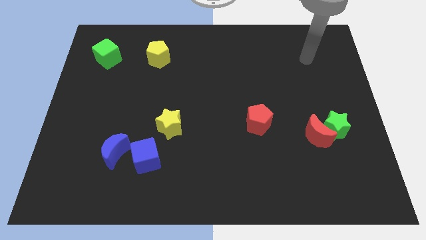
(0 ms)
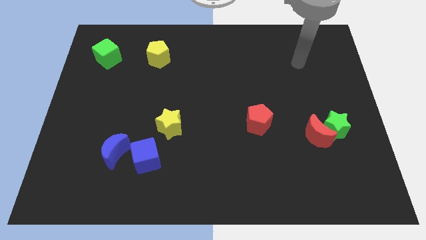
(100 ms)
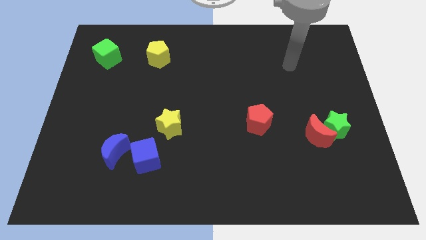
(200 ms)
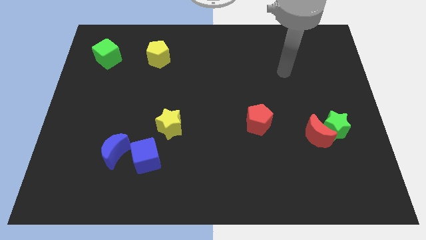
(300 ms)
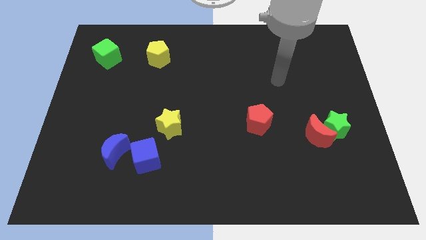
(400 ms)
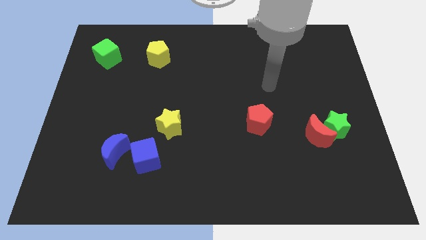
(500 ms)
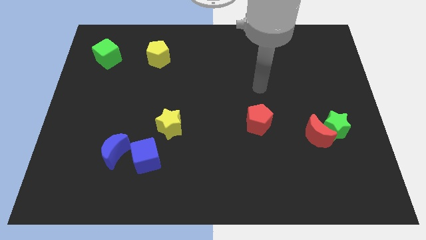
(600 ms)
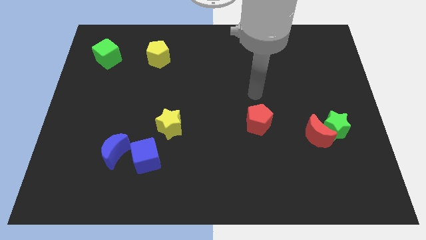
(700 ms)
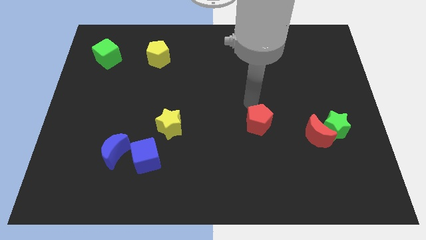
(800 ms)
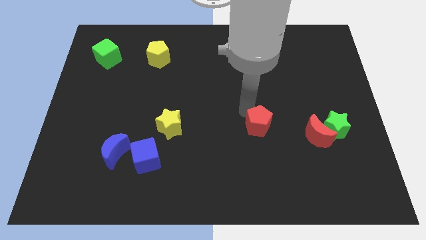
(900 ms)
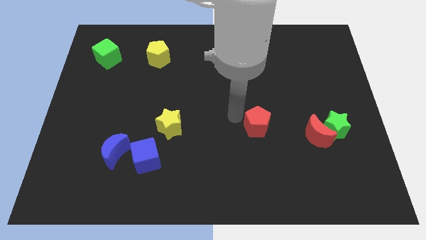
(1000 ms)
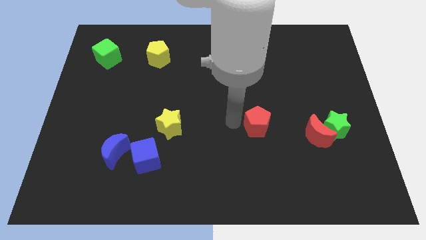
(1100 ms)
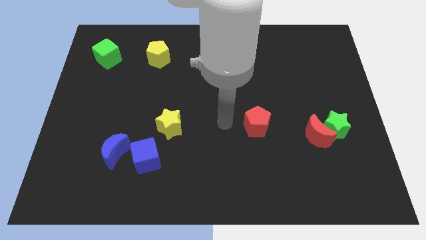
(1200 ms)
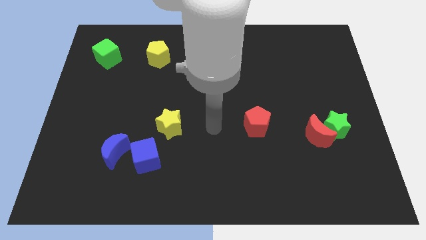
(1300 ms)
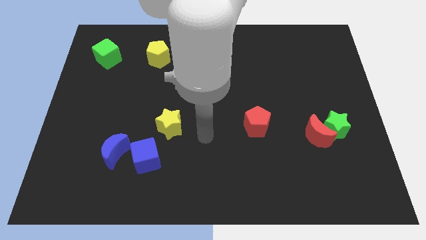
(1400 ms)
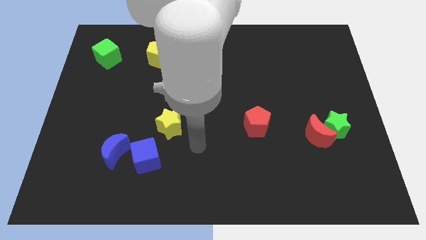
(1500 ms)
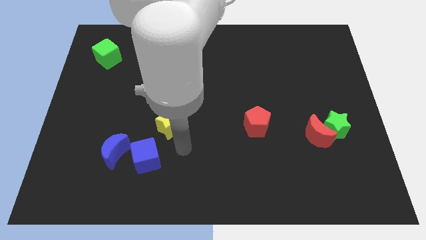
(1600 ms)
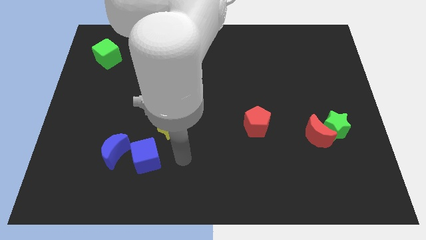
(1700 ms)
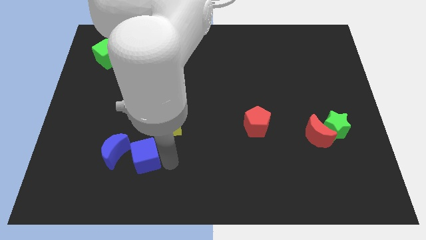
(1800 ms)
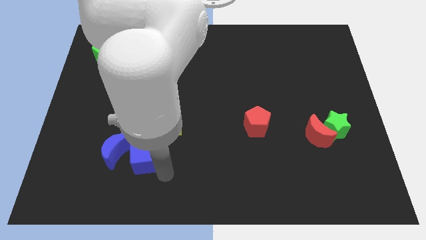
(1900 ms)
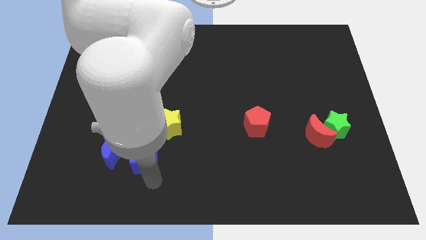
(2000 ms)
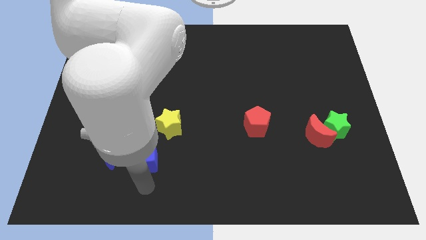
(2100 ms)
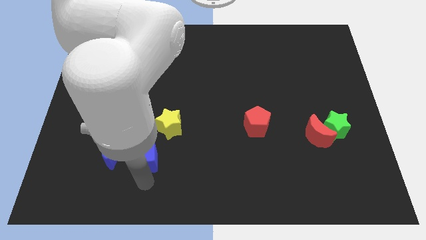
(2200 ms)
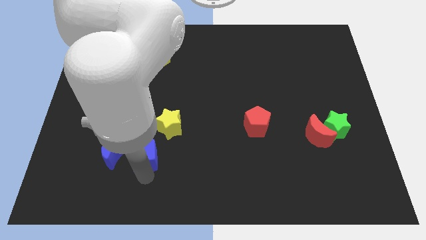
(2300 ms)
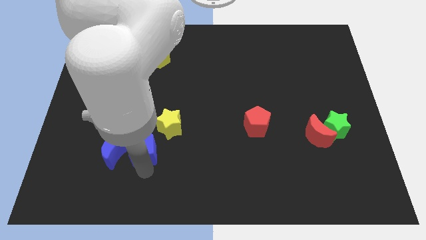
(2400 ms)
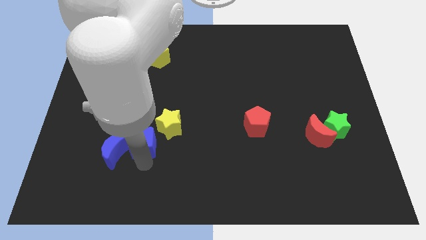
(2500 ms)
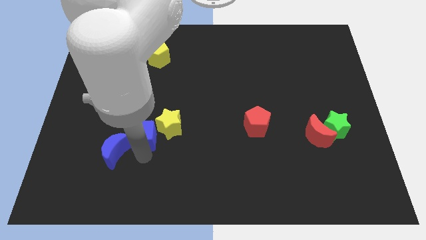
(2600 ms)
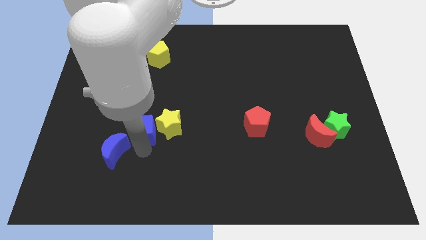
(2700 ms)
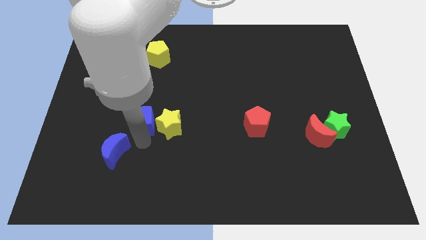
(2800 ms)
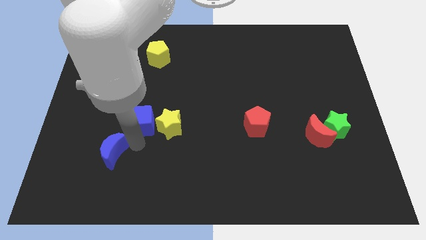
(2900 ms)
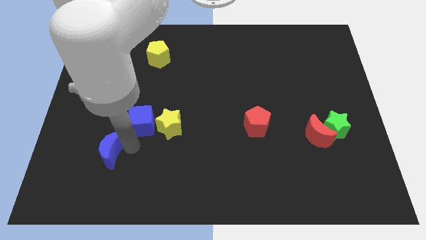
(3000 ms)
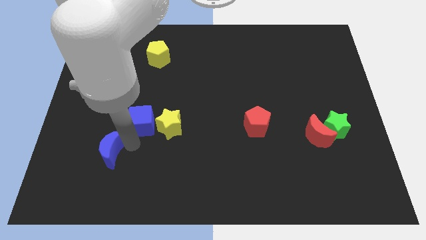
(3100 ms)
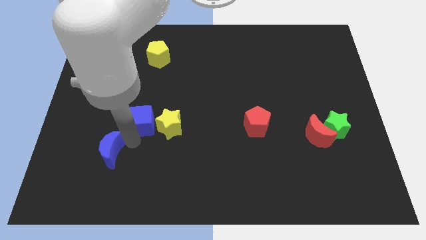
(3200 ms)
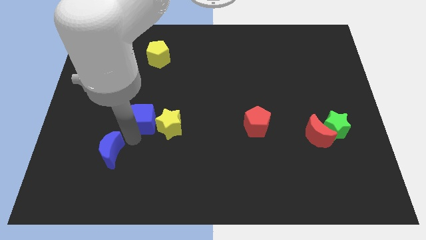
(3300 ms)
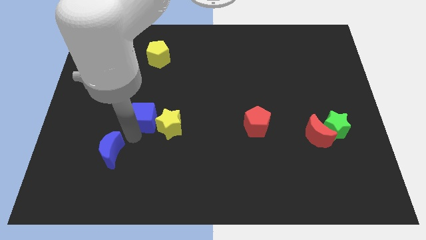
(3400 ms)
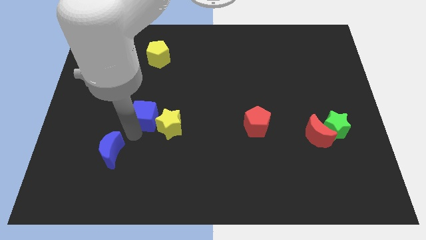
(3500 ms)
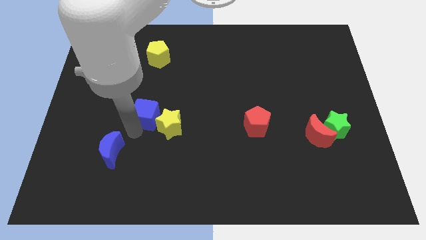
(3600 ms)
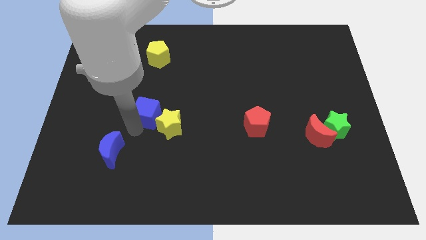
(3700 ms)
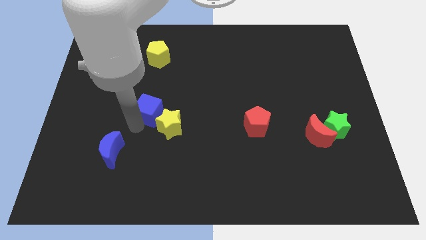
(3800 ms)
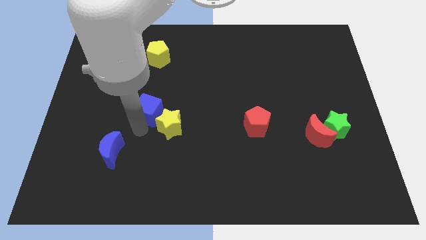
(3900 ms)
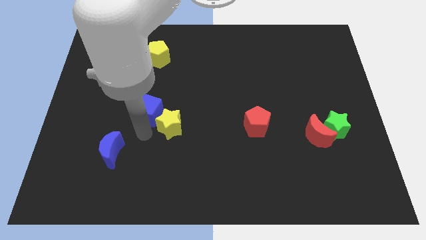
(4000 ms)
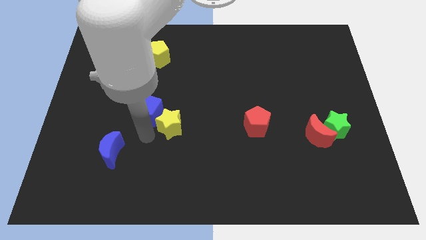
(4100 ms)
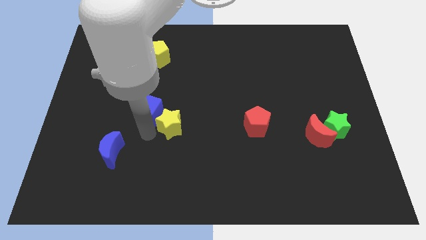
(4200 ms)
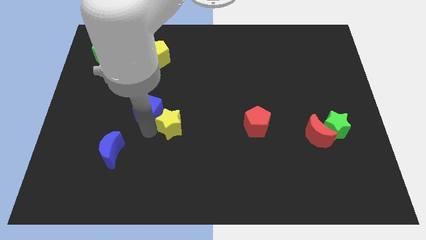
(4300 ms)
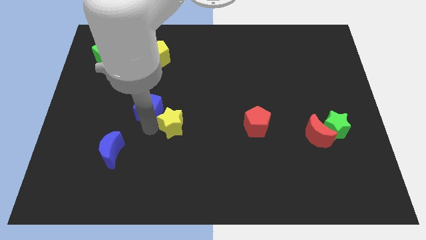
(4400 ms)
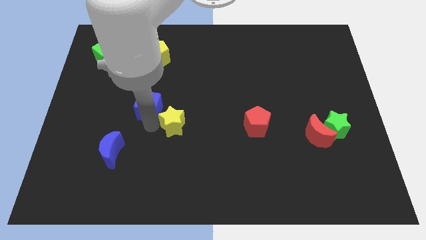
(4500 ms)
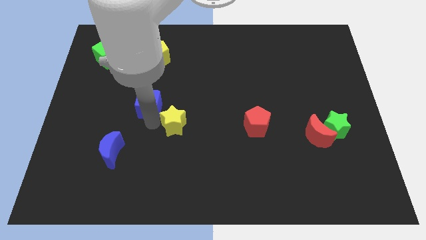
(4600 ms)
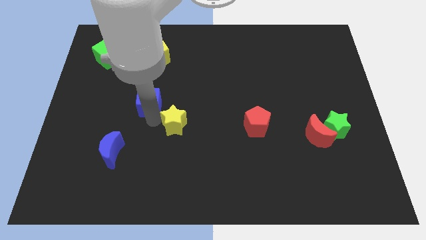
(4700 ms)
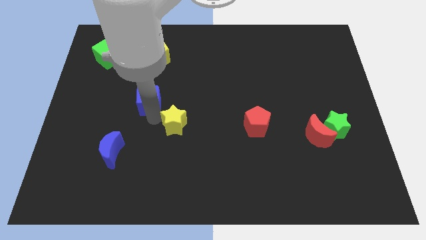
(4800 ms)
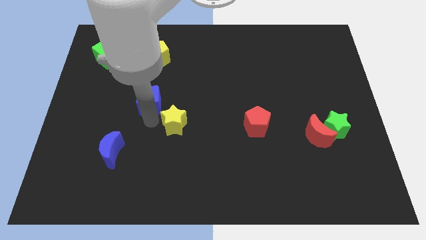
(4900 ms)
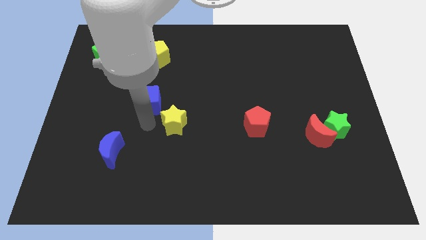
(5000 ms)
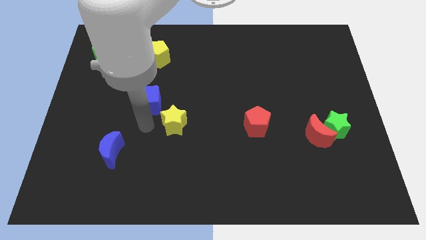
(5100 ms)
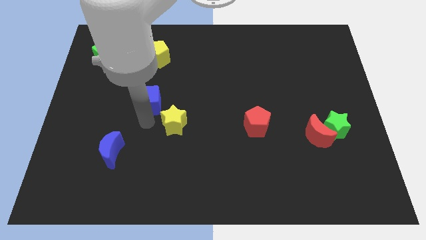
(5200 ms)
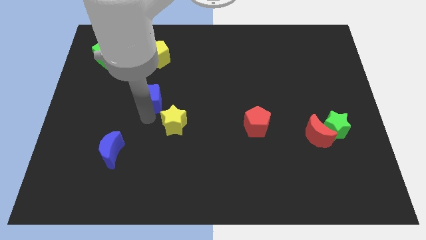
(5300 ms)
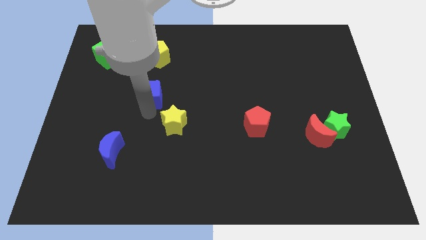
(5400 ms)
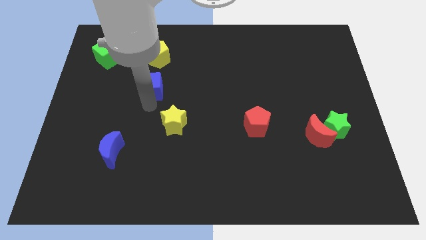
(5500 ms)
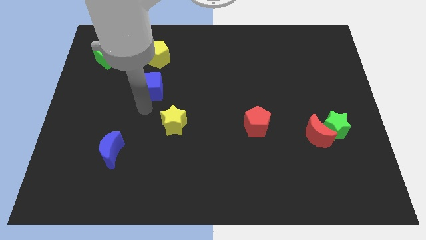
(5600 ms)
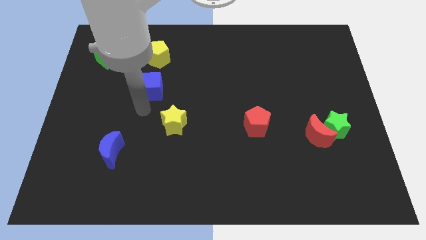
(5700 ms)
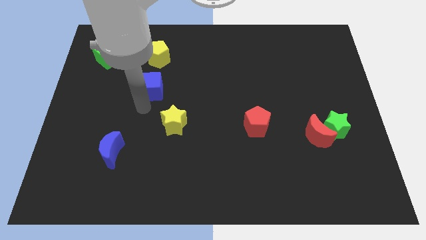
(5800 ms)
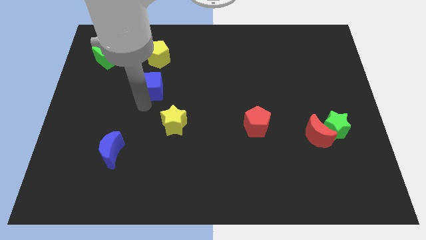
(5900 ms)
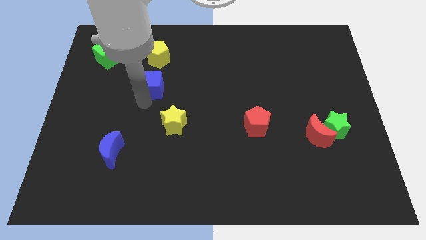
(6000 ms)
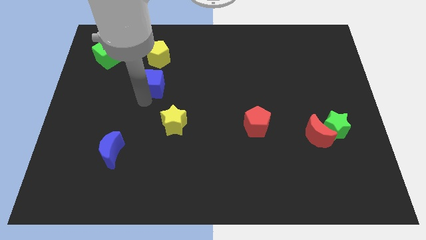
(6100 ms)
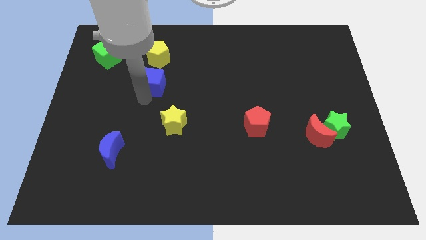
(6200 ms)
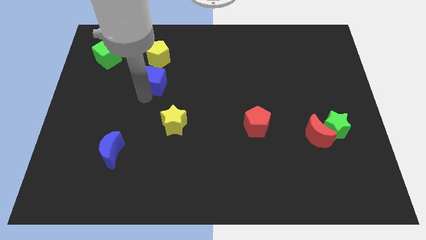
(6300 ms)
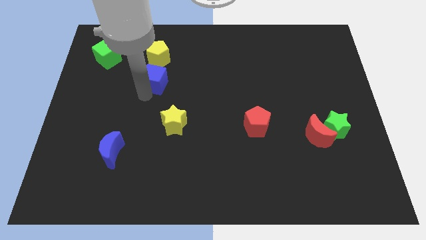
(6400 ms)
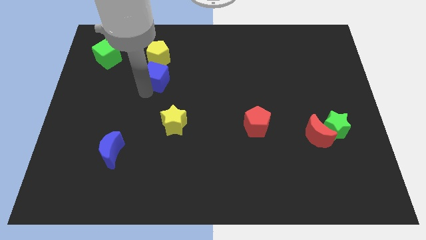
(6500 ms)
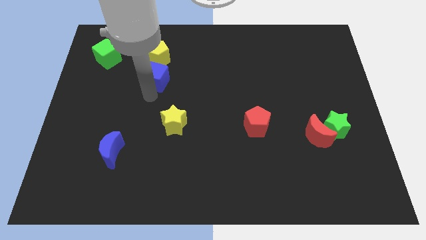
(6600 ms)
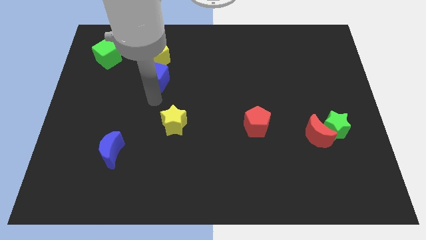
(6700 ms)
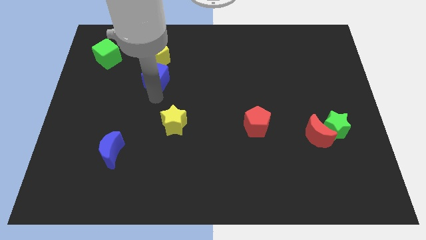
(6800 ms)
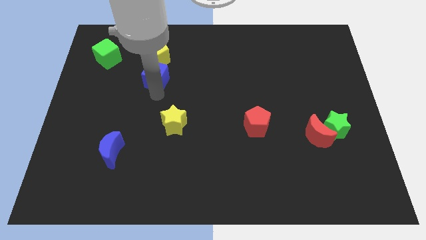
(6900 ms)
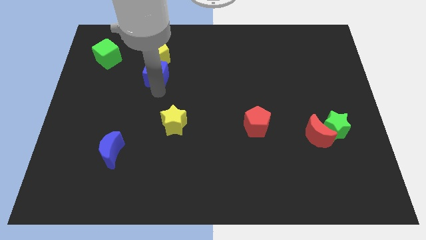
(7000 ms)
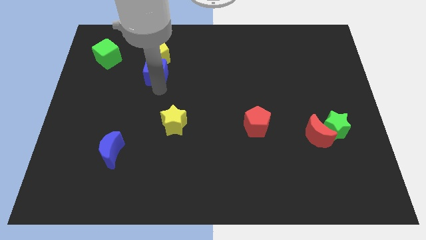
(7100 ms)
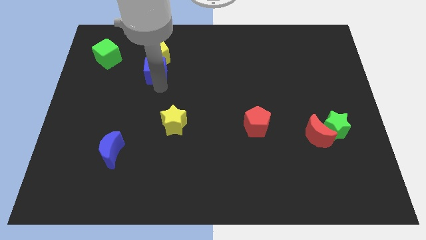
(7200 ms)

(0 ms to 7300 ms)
put the blue cube close to the yellow pentagon

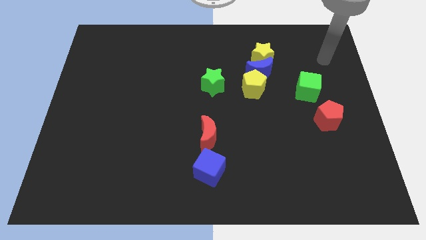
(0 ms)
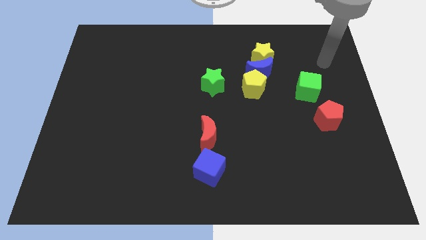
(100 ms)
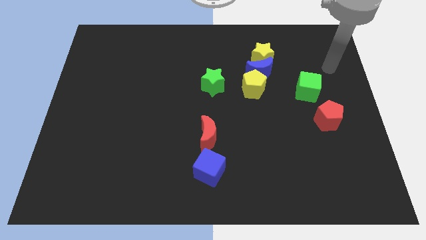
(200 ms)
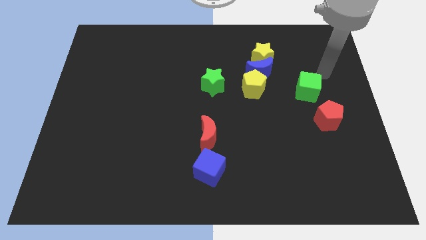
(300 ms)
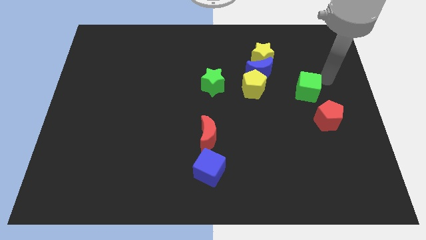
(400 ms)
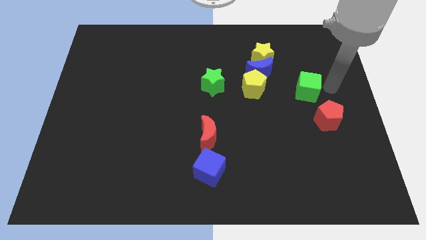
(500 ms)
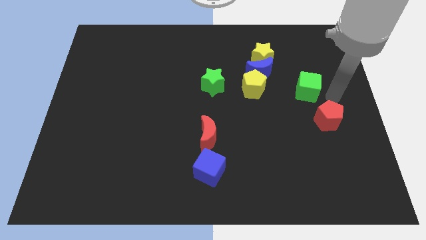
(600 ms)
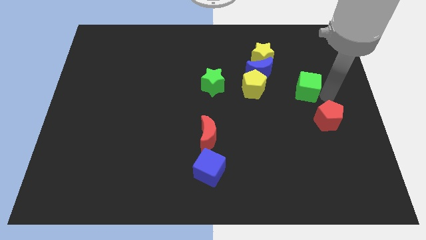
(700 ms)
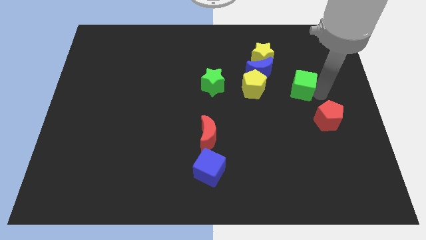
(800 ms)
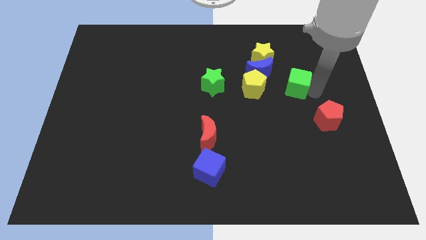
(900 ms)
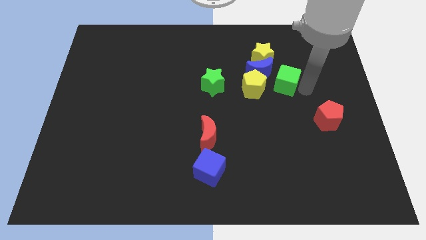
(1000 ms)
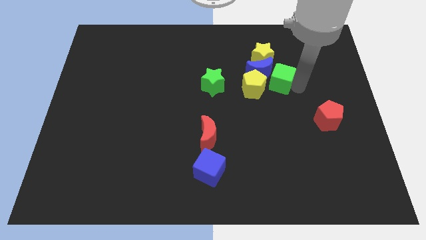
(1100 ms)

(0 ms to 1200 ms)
push the green cube close to the blue moon
